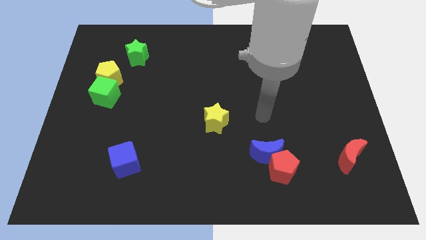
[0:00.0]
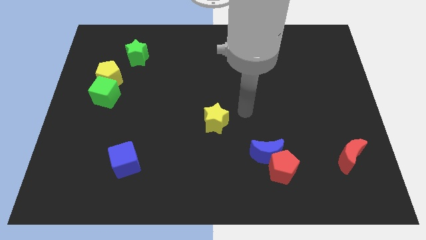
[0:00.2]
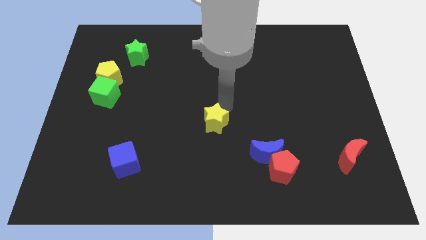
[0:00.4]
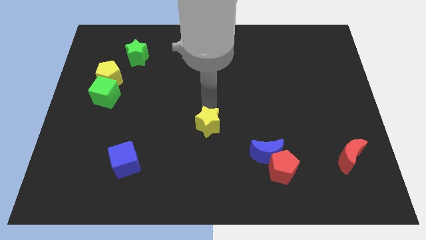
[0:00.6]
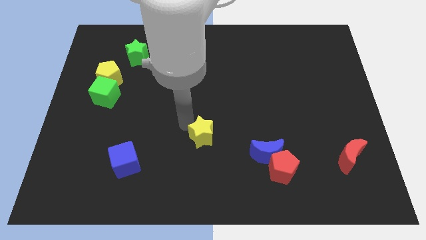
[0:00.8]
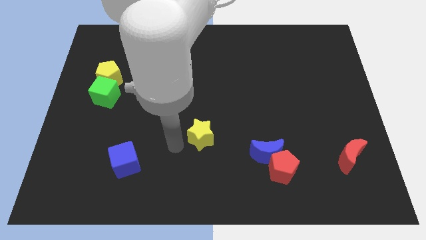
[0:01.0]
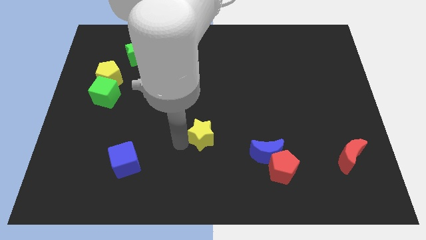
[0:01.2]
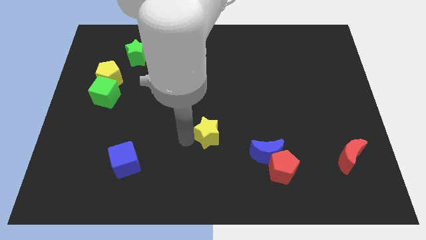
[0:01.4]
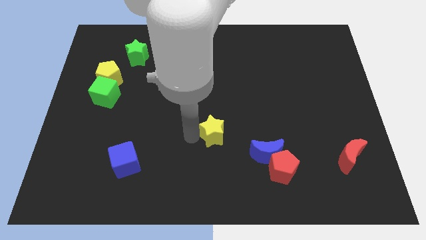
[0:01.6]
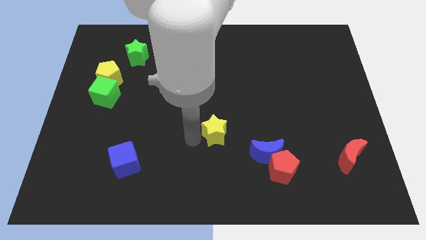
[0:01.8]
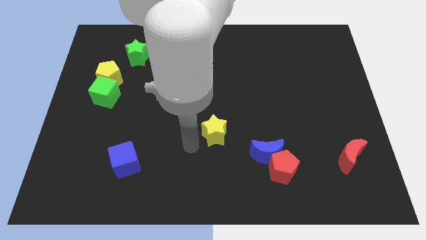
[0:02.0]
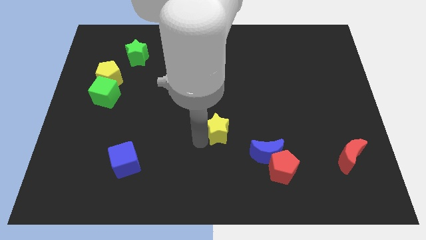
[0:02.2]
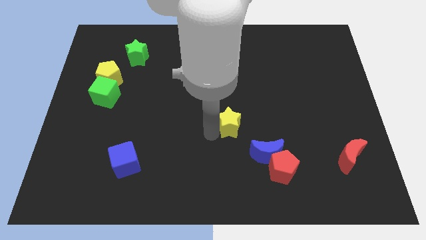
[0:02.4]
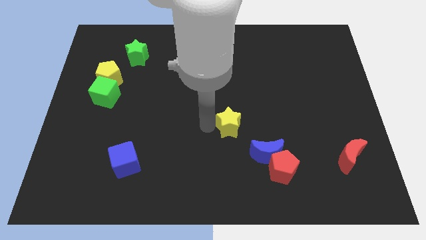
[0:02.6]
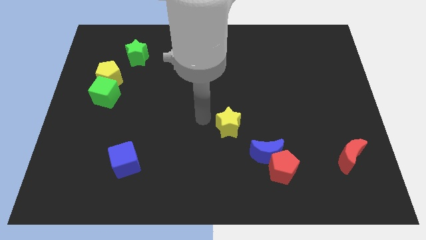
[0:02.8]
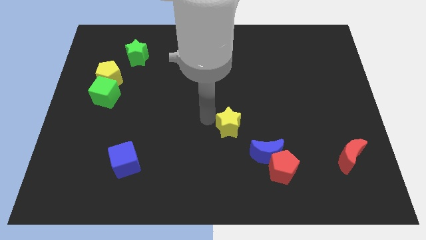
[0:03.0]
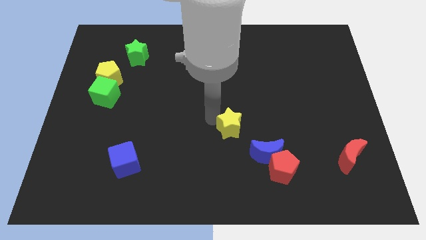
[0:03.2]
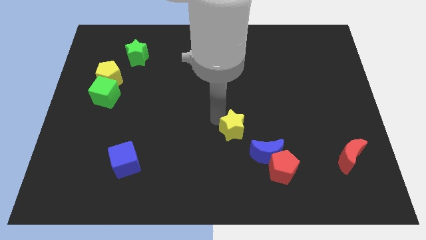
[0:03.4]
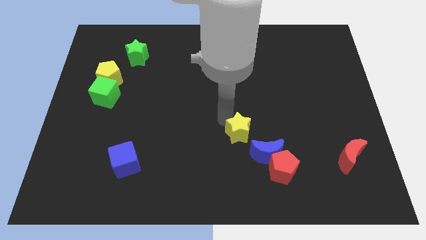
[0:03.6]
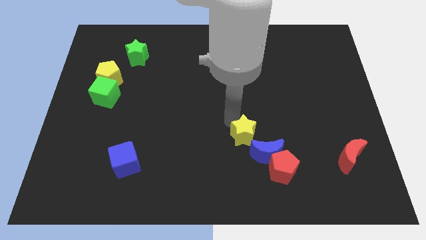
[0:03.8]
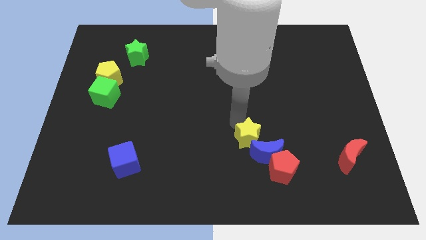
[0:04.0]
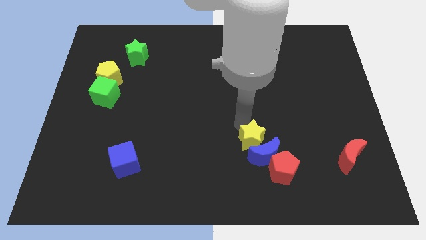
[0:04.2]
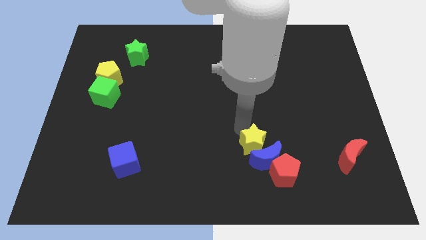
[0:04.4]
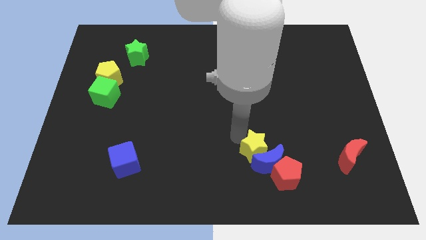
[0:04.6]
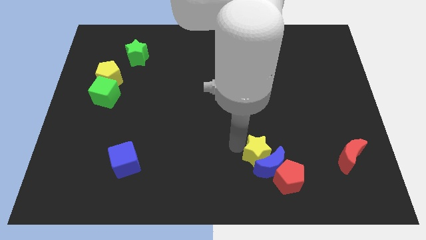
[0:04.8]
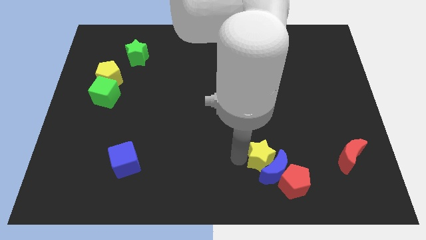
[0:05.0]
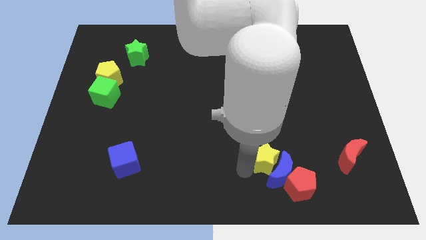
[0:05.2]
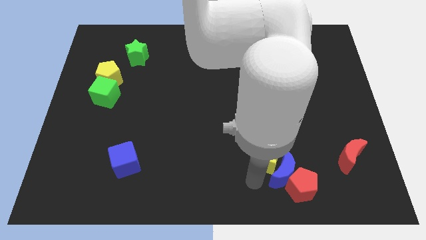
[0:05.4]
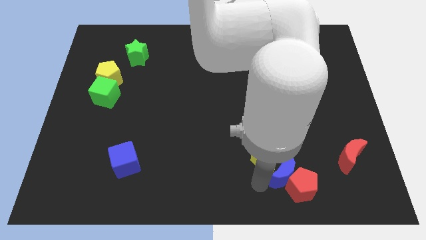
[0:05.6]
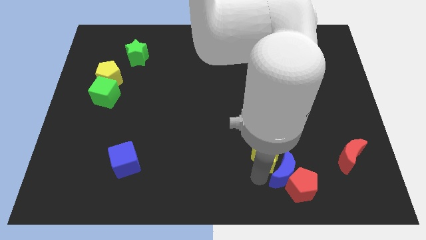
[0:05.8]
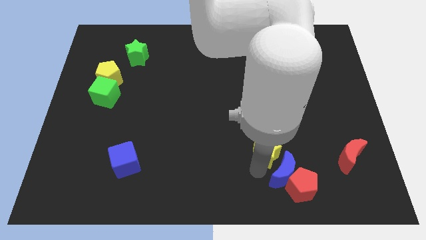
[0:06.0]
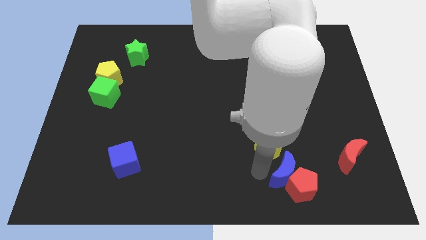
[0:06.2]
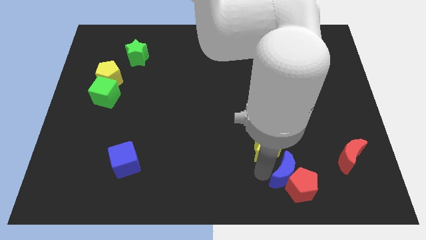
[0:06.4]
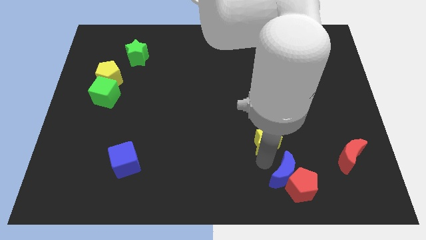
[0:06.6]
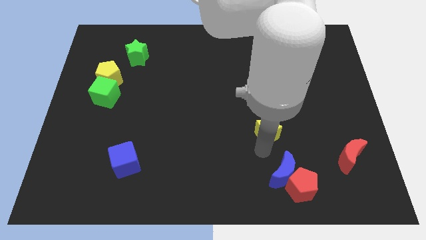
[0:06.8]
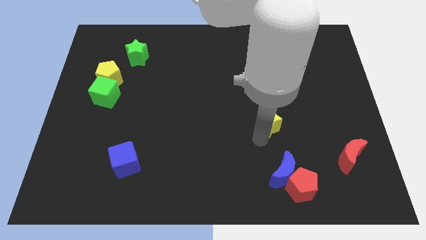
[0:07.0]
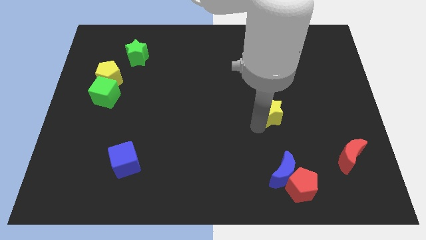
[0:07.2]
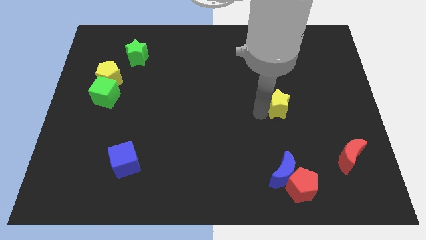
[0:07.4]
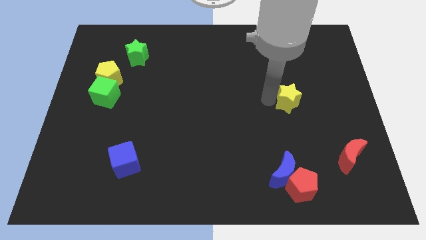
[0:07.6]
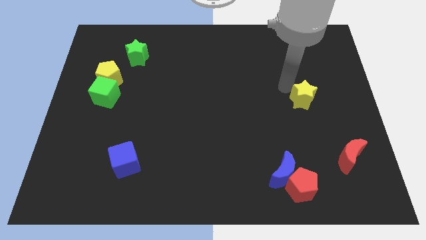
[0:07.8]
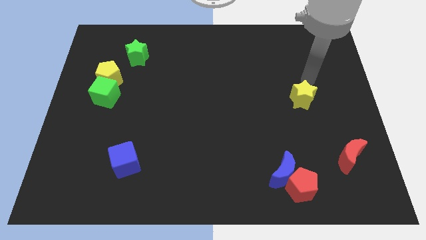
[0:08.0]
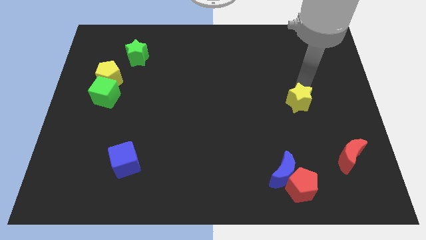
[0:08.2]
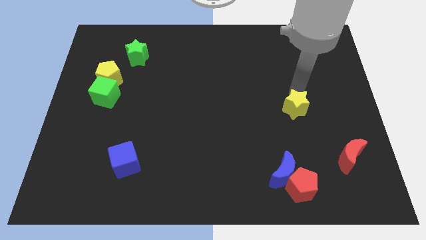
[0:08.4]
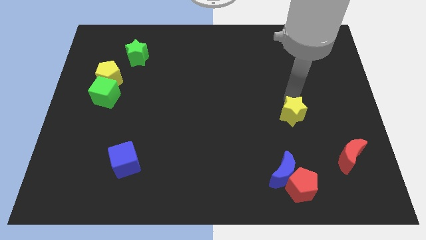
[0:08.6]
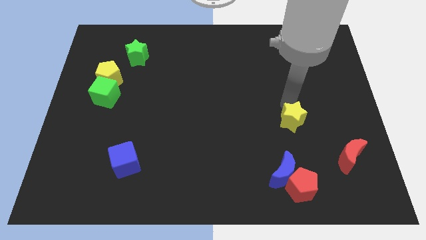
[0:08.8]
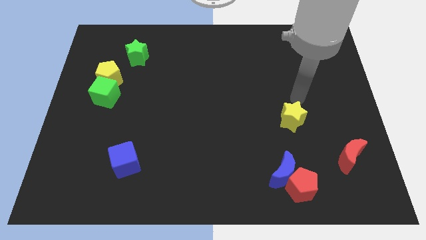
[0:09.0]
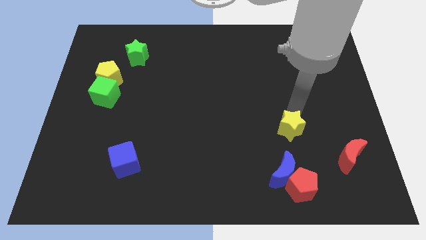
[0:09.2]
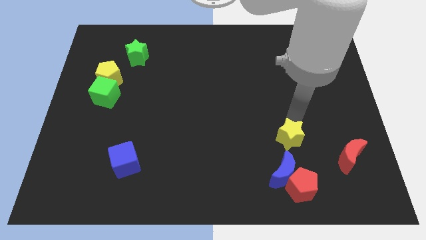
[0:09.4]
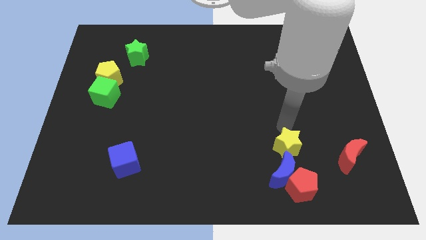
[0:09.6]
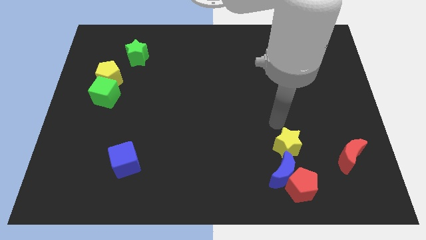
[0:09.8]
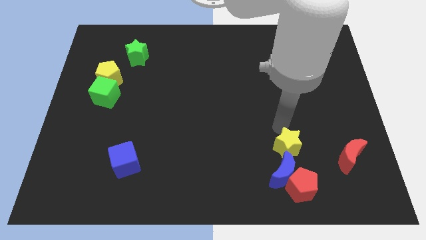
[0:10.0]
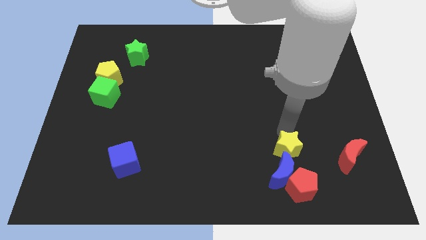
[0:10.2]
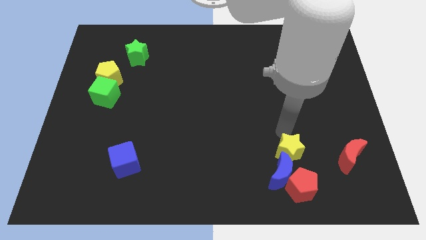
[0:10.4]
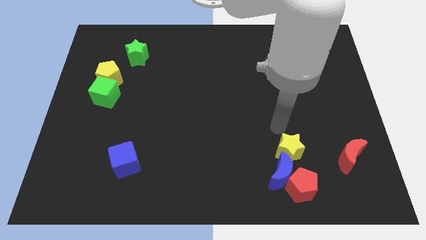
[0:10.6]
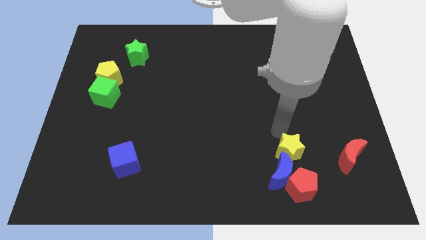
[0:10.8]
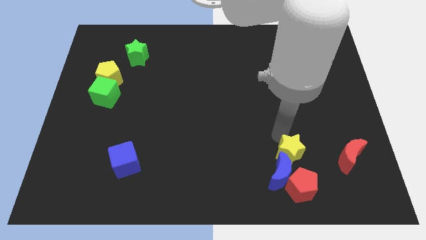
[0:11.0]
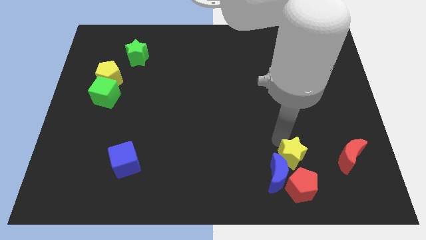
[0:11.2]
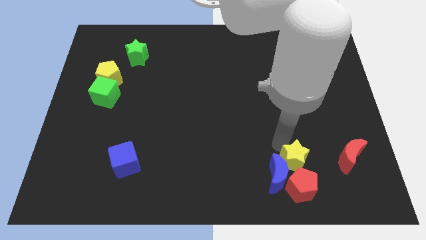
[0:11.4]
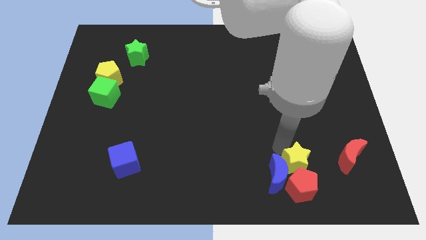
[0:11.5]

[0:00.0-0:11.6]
move the yellow star to the red pentagon

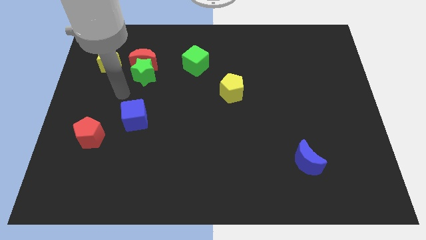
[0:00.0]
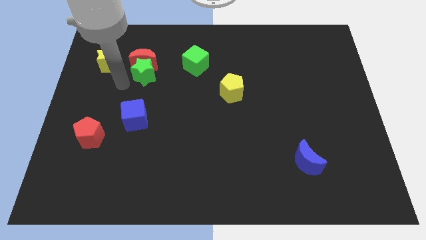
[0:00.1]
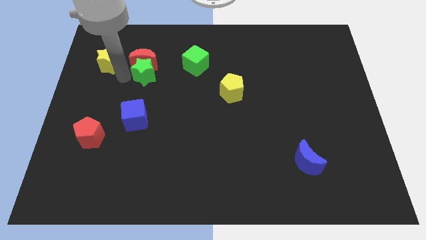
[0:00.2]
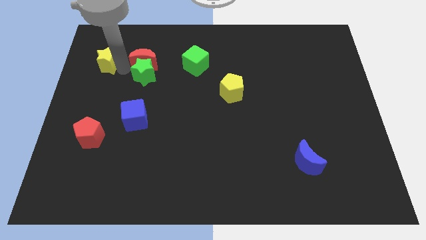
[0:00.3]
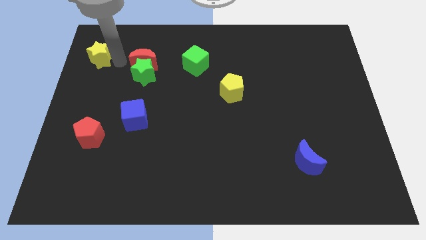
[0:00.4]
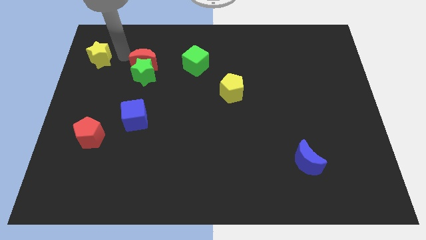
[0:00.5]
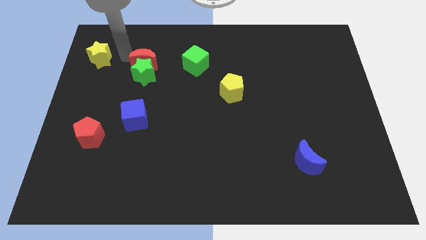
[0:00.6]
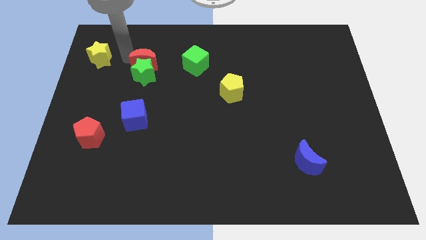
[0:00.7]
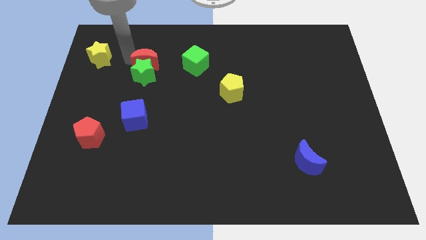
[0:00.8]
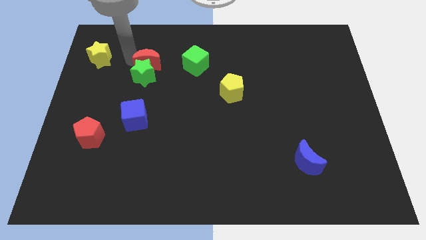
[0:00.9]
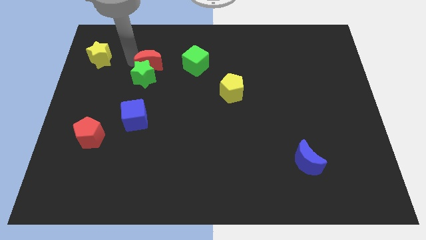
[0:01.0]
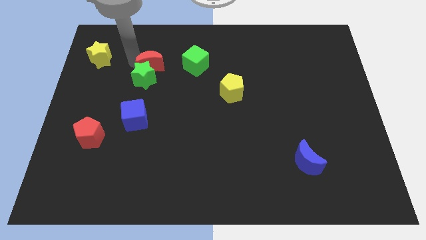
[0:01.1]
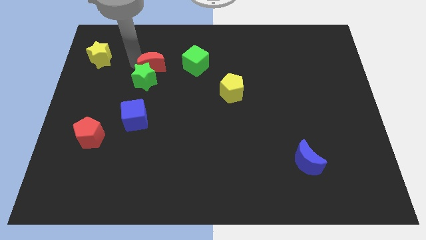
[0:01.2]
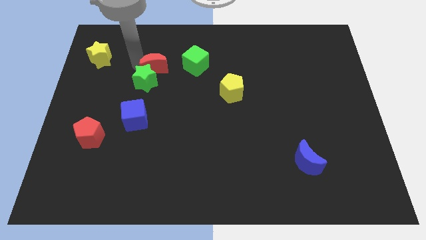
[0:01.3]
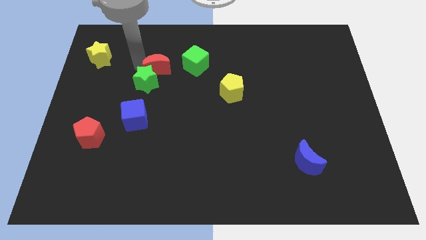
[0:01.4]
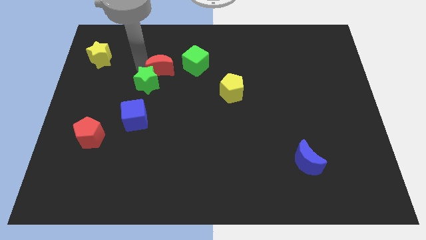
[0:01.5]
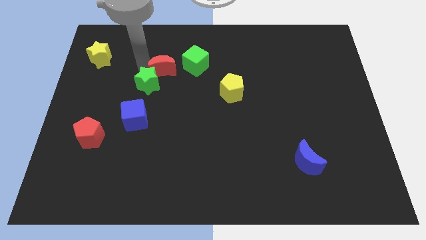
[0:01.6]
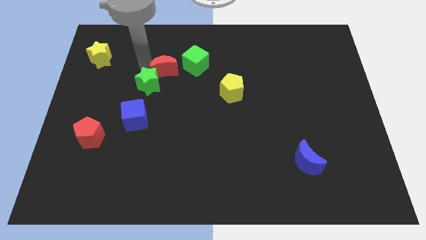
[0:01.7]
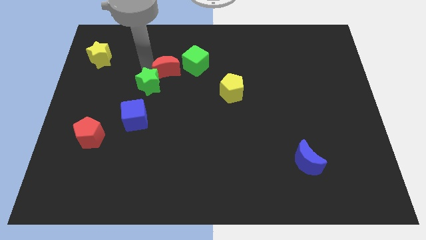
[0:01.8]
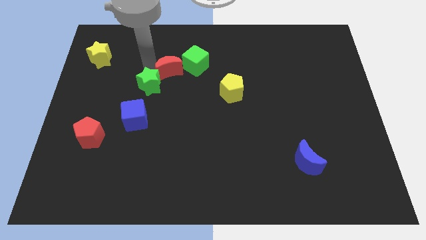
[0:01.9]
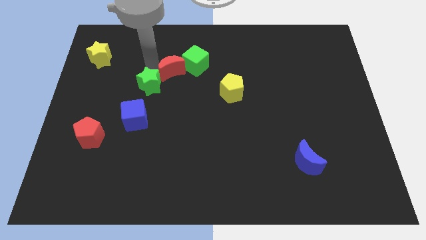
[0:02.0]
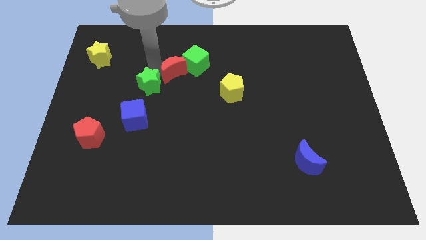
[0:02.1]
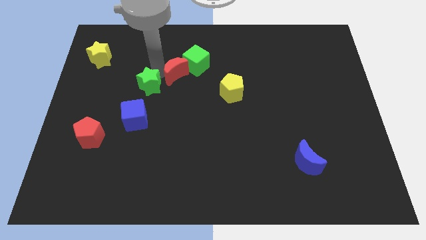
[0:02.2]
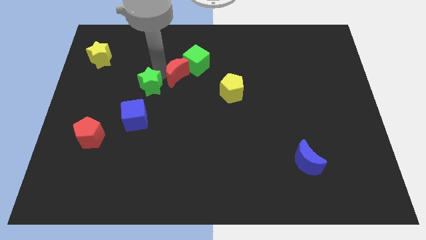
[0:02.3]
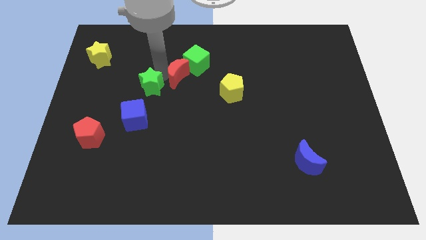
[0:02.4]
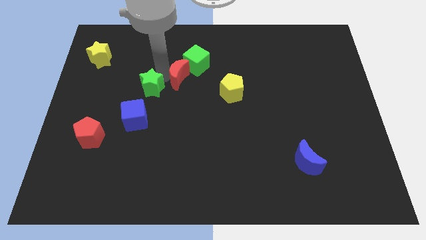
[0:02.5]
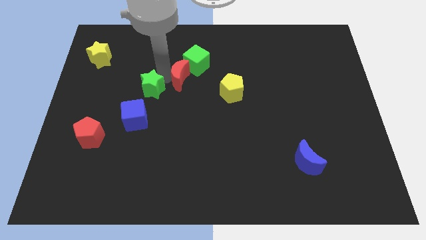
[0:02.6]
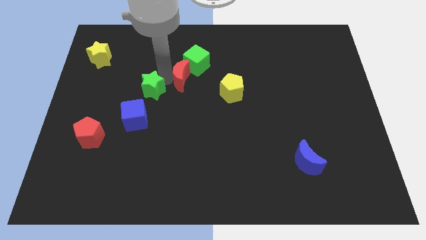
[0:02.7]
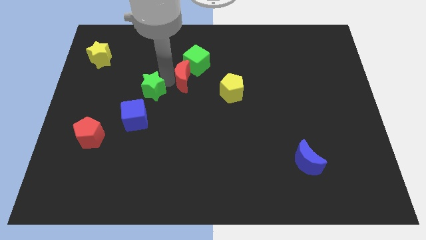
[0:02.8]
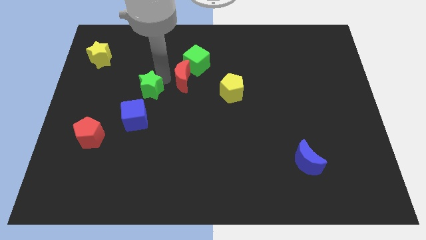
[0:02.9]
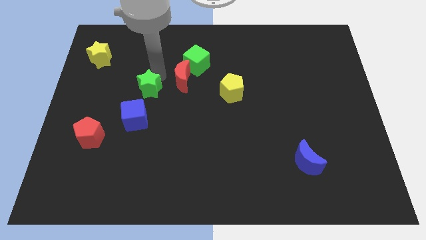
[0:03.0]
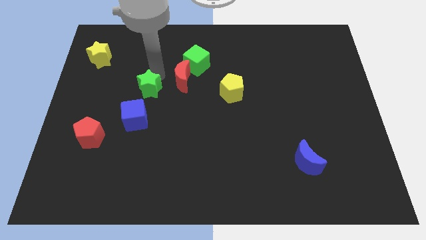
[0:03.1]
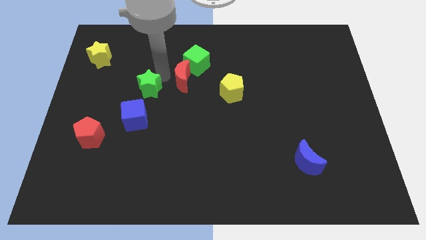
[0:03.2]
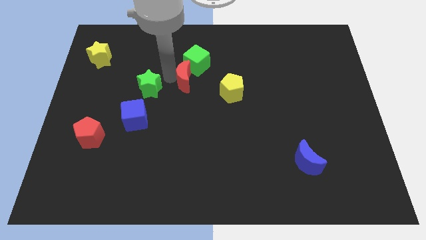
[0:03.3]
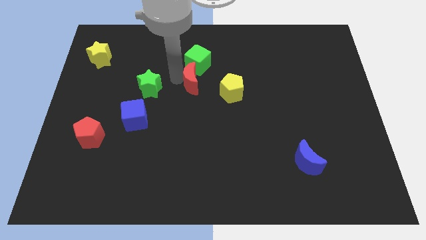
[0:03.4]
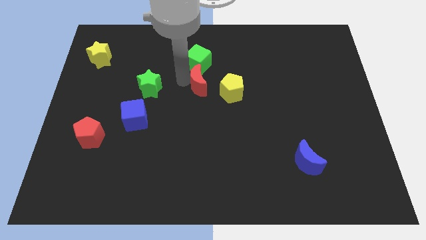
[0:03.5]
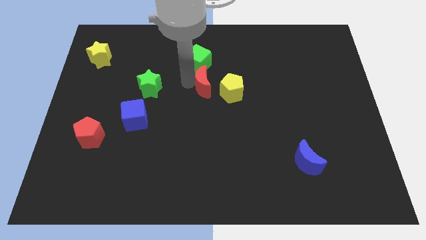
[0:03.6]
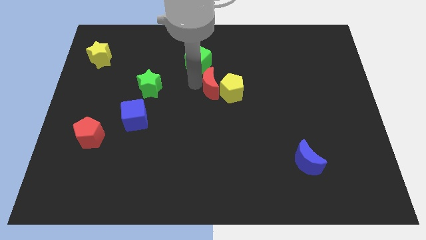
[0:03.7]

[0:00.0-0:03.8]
put the red moon towards the yellow pentagon
